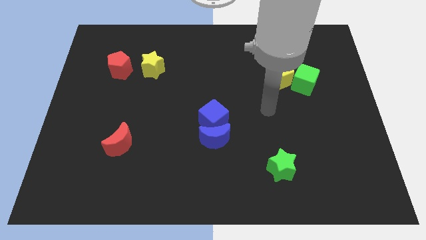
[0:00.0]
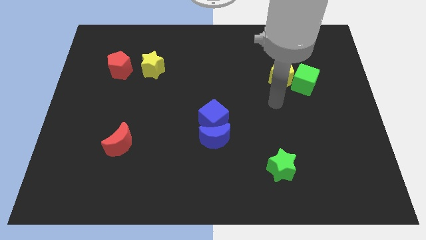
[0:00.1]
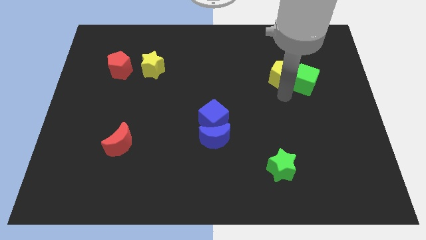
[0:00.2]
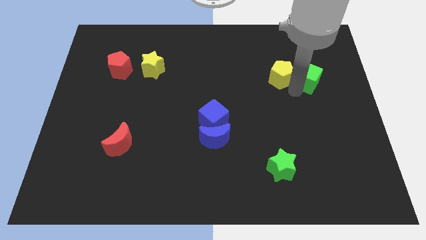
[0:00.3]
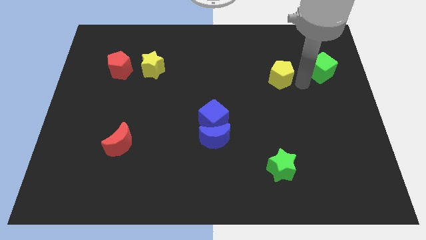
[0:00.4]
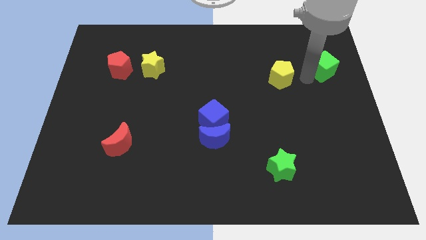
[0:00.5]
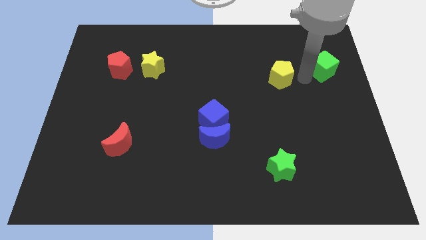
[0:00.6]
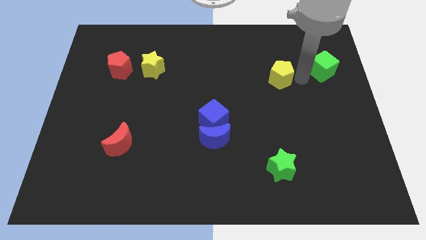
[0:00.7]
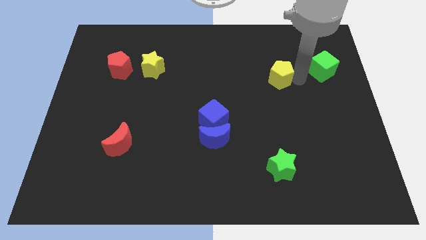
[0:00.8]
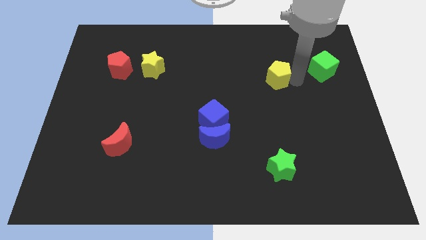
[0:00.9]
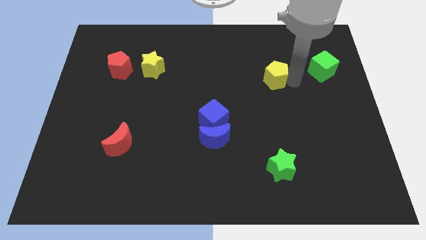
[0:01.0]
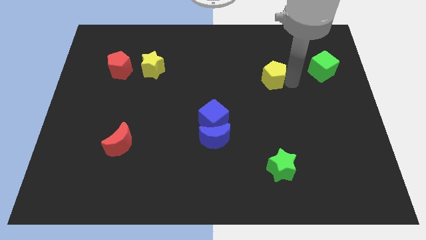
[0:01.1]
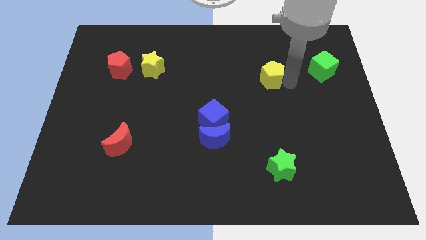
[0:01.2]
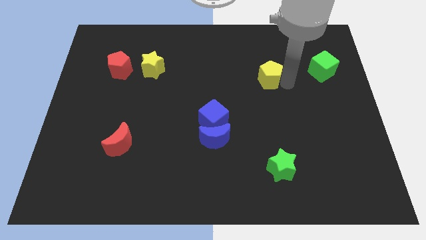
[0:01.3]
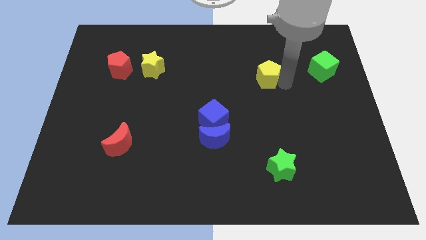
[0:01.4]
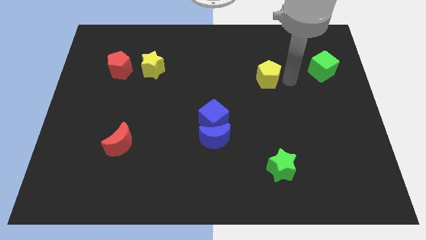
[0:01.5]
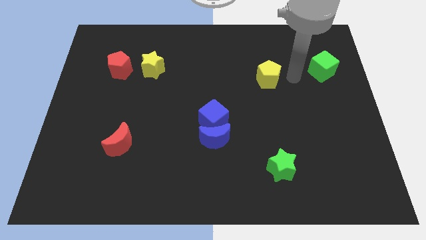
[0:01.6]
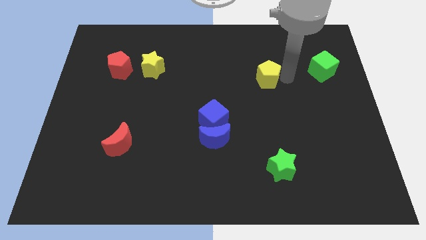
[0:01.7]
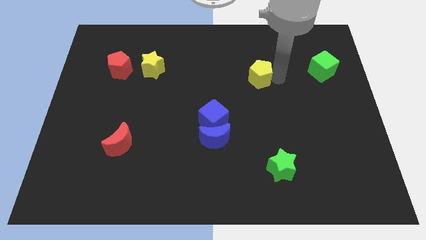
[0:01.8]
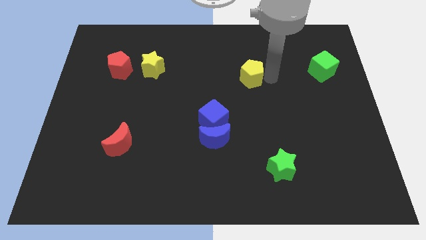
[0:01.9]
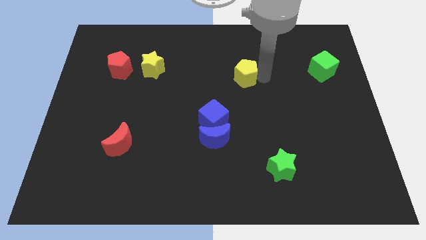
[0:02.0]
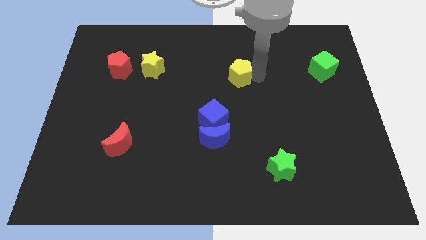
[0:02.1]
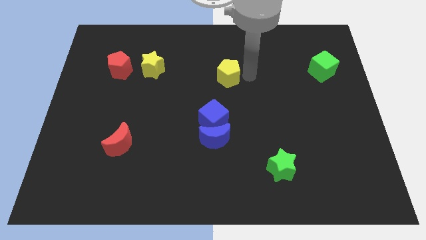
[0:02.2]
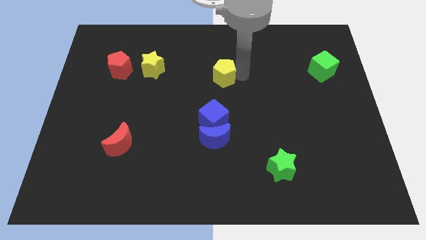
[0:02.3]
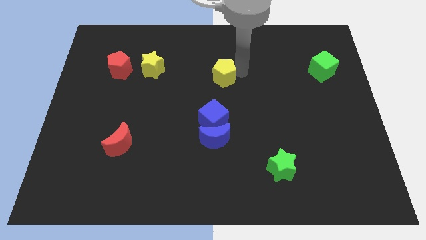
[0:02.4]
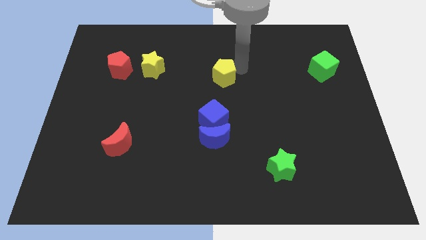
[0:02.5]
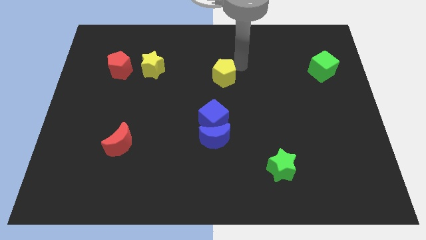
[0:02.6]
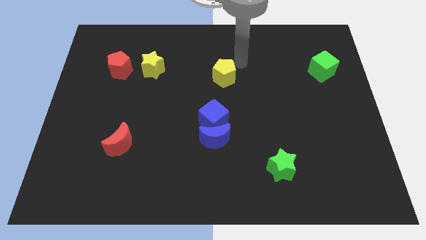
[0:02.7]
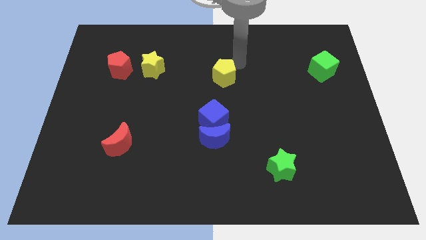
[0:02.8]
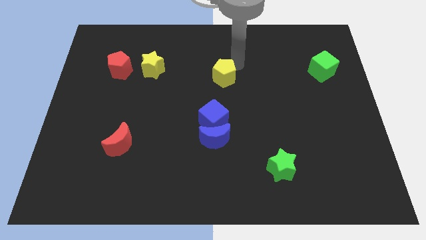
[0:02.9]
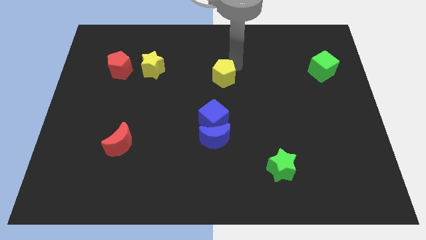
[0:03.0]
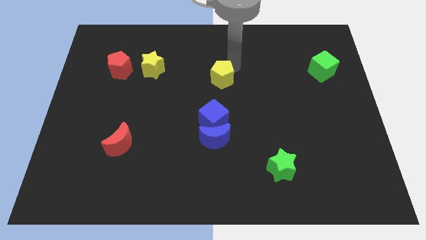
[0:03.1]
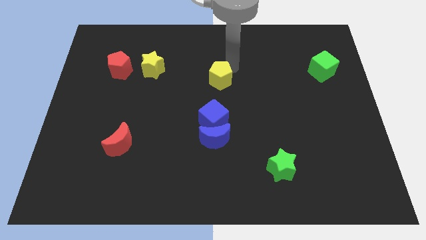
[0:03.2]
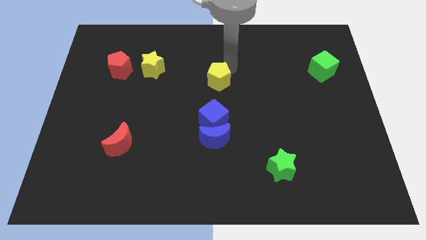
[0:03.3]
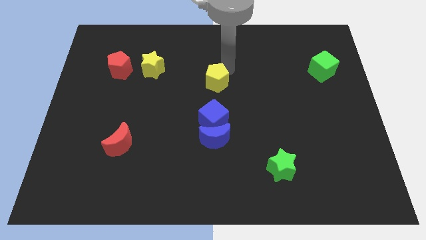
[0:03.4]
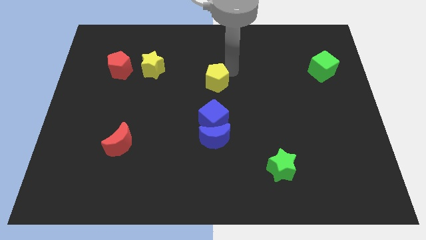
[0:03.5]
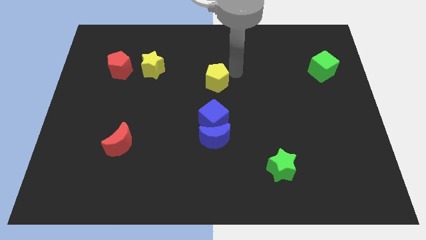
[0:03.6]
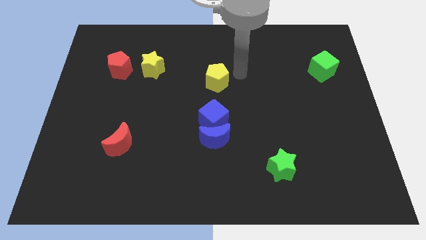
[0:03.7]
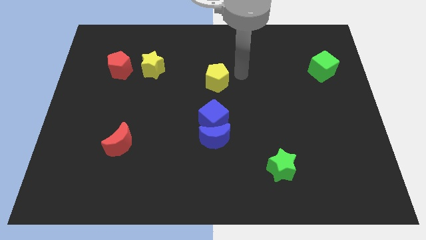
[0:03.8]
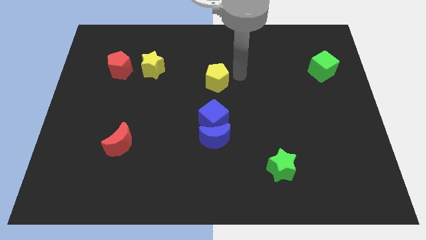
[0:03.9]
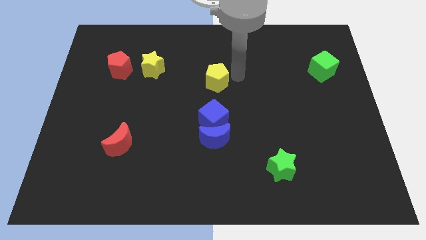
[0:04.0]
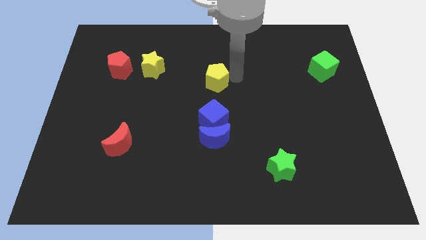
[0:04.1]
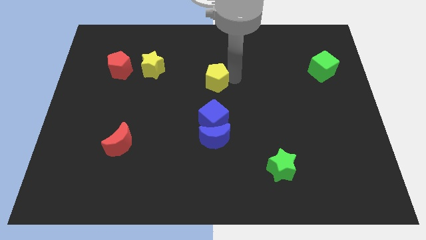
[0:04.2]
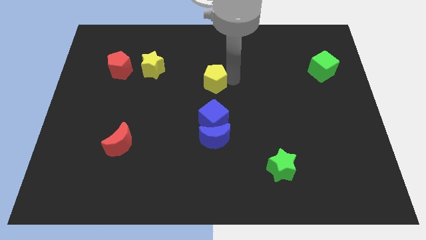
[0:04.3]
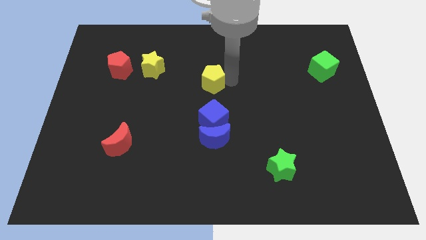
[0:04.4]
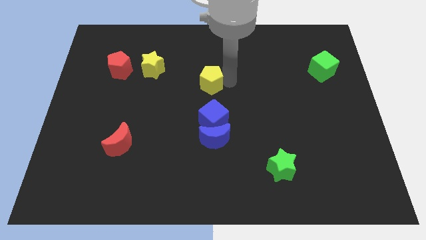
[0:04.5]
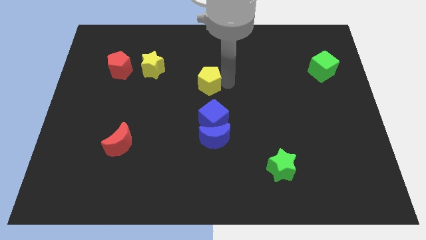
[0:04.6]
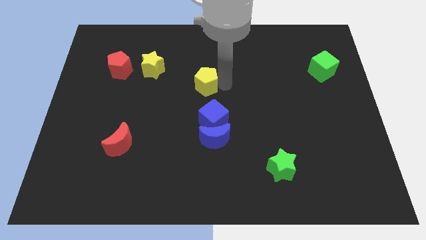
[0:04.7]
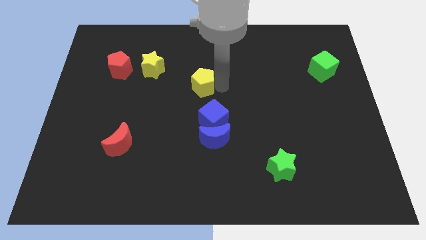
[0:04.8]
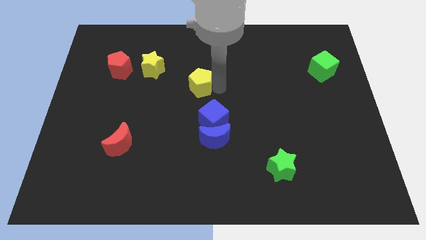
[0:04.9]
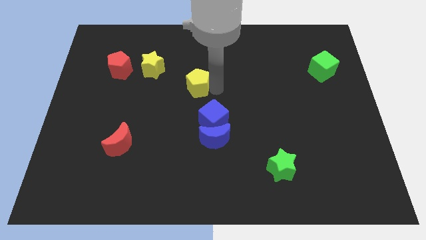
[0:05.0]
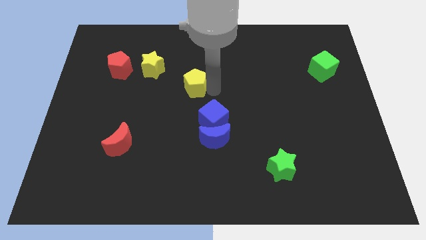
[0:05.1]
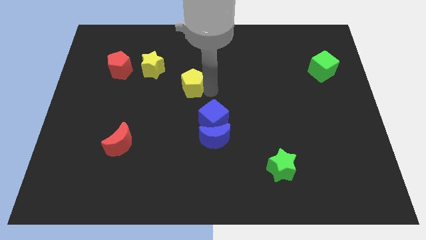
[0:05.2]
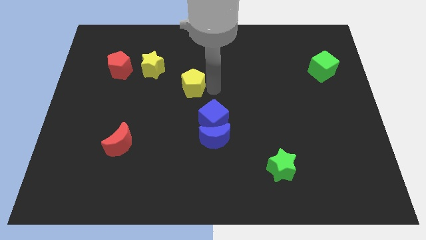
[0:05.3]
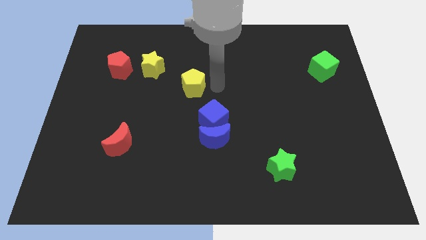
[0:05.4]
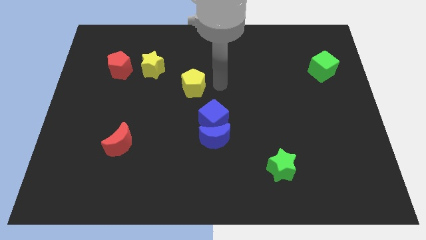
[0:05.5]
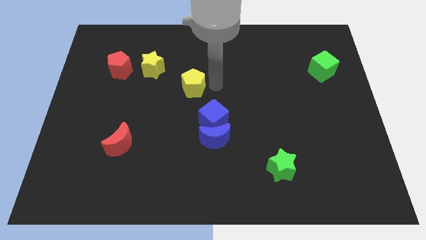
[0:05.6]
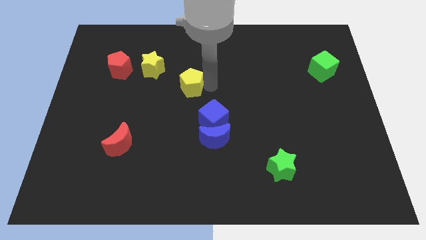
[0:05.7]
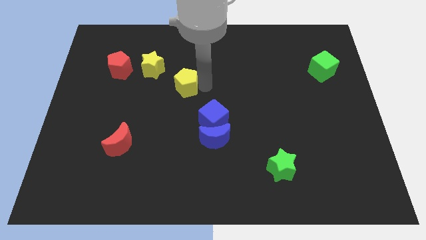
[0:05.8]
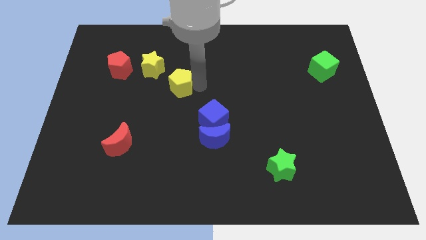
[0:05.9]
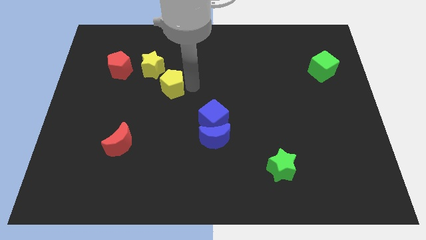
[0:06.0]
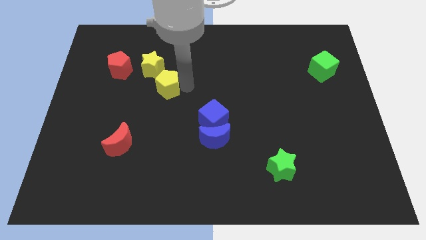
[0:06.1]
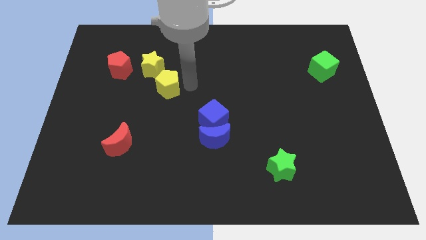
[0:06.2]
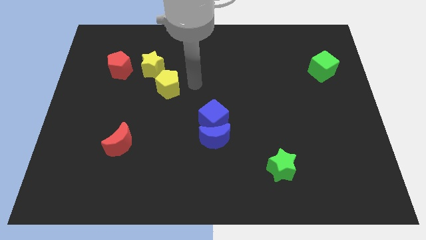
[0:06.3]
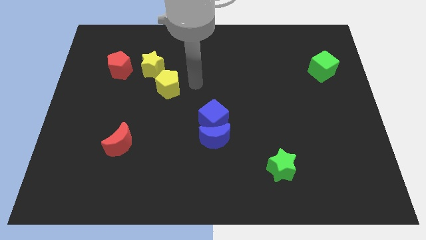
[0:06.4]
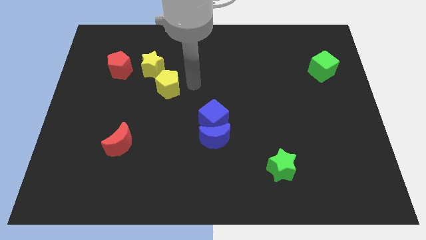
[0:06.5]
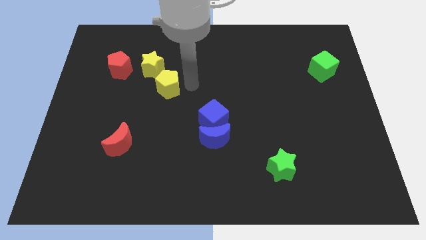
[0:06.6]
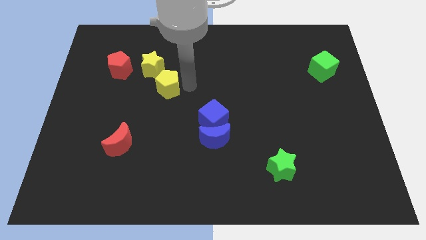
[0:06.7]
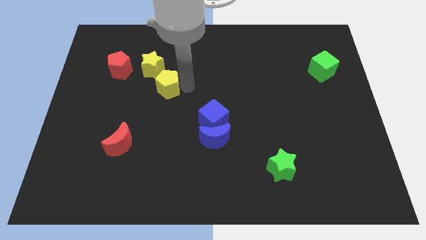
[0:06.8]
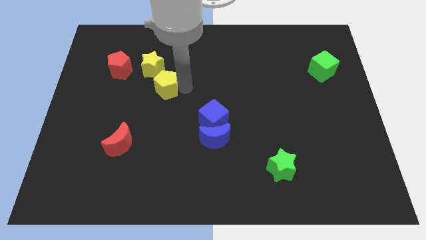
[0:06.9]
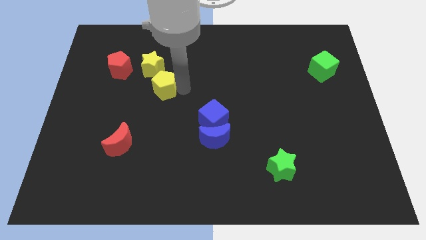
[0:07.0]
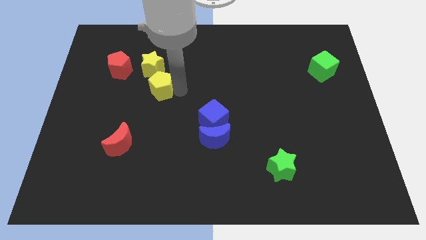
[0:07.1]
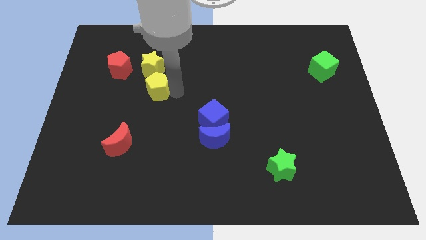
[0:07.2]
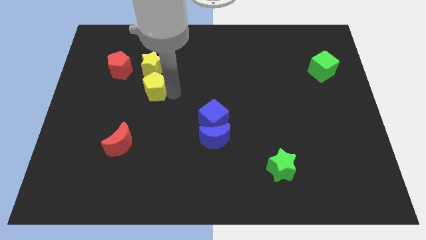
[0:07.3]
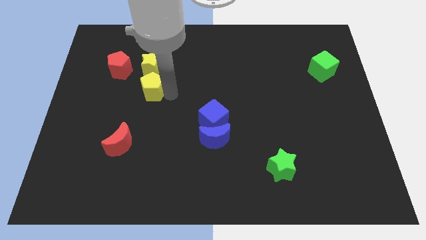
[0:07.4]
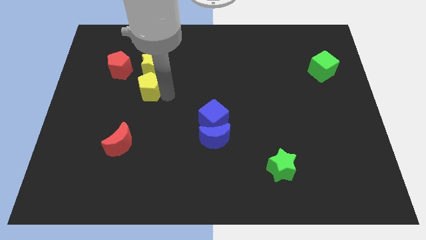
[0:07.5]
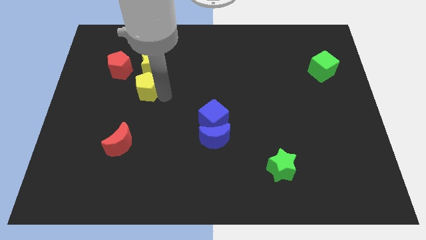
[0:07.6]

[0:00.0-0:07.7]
move the yellow pentagon to the bottom left side of the yellow star
